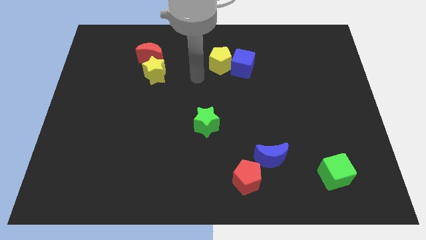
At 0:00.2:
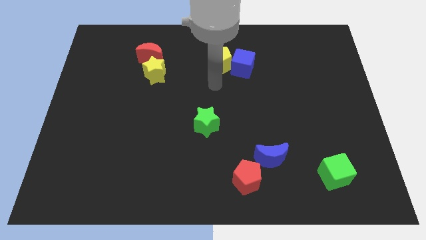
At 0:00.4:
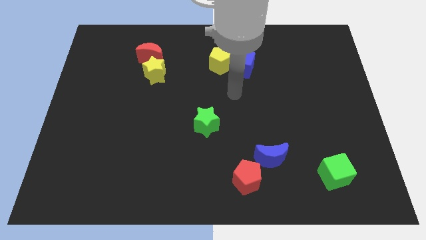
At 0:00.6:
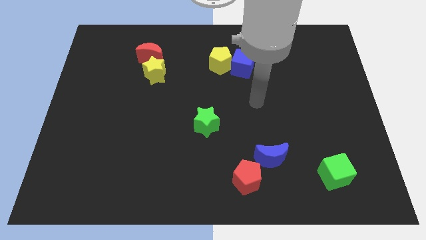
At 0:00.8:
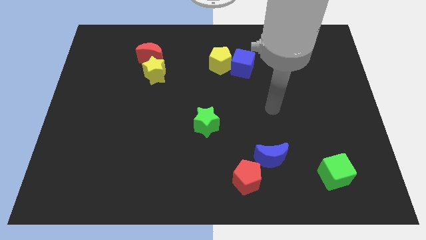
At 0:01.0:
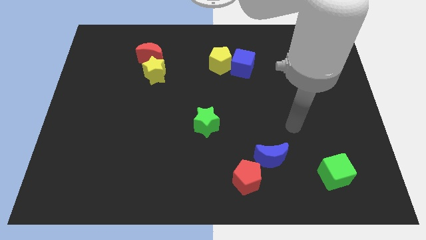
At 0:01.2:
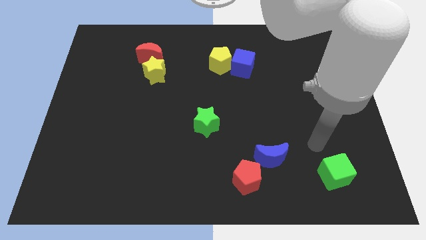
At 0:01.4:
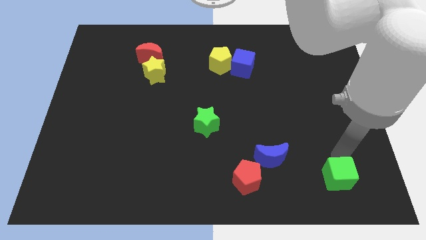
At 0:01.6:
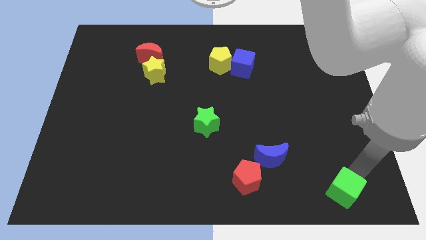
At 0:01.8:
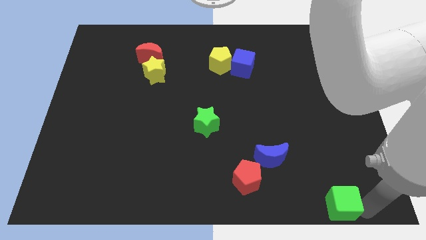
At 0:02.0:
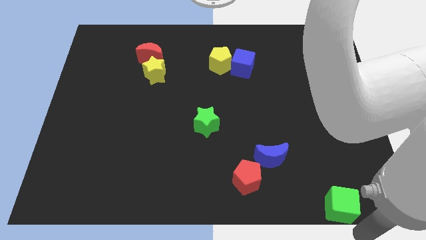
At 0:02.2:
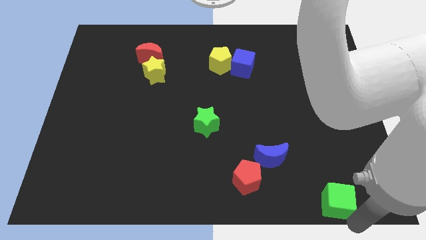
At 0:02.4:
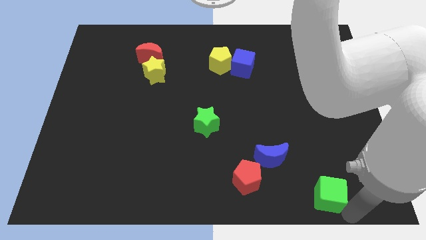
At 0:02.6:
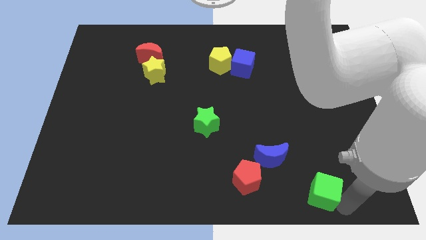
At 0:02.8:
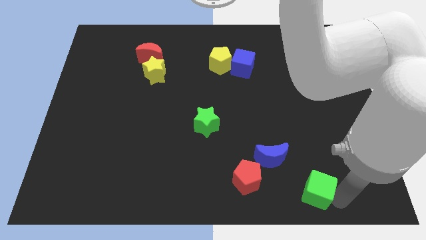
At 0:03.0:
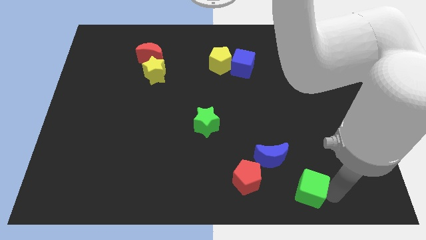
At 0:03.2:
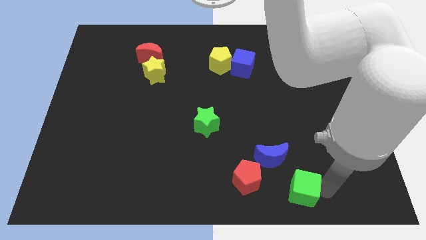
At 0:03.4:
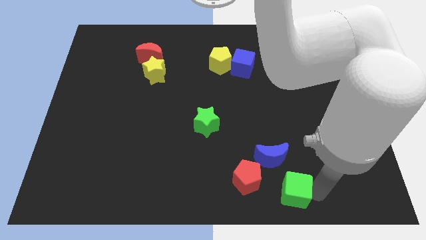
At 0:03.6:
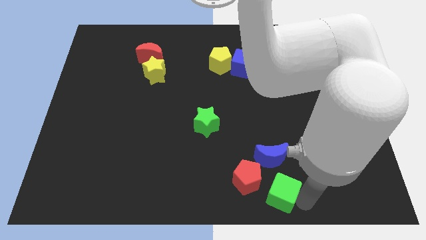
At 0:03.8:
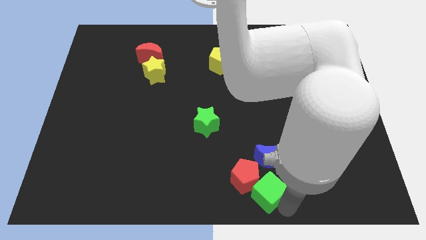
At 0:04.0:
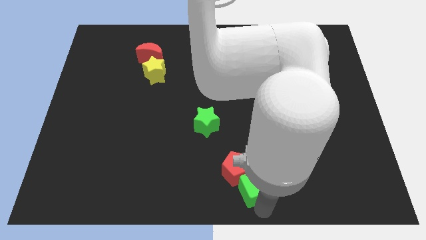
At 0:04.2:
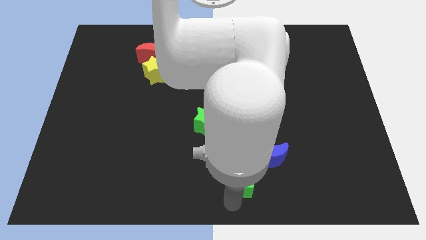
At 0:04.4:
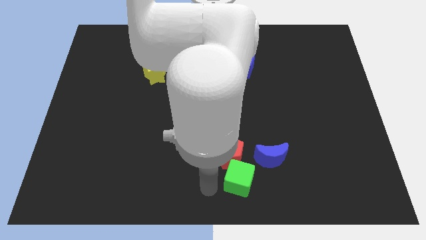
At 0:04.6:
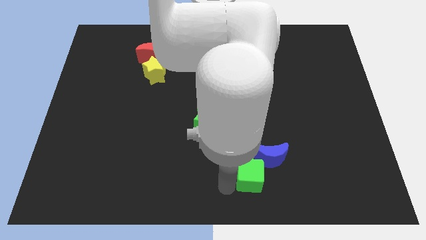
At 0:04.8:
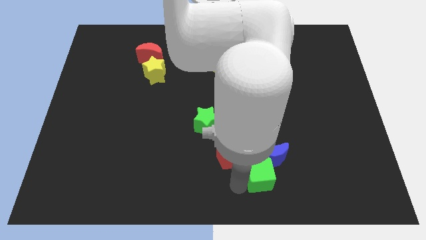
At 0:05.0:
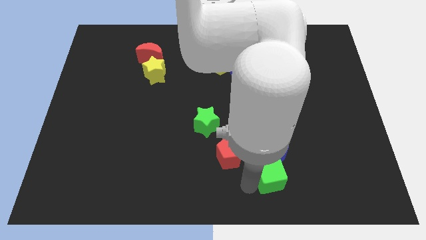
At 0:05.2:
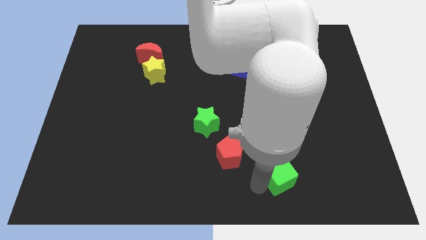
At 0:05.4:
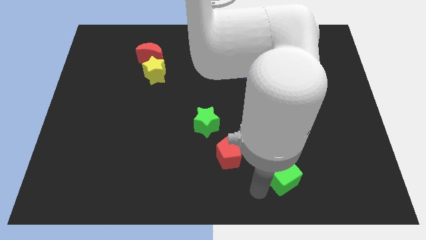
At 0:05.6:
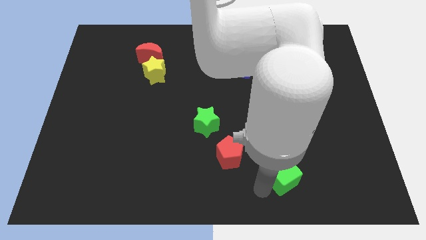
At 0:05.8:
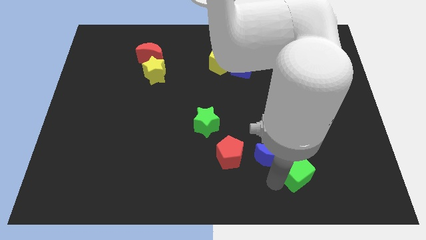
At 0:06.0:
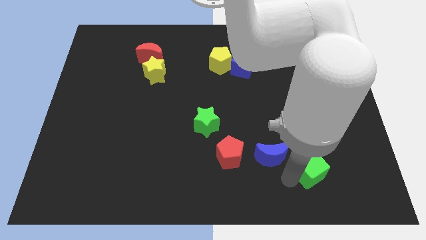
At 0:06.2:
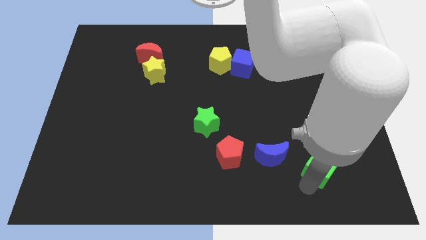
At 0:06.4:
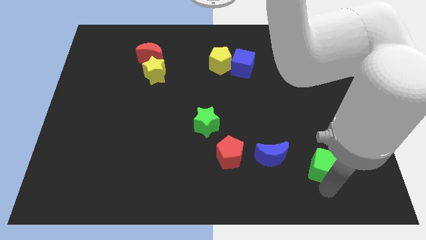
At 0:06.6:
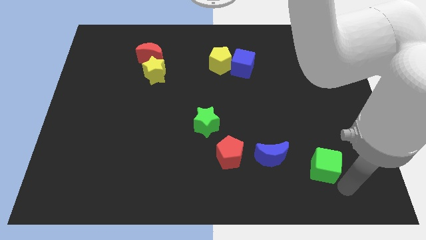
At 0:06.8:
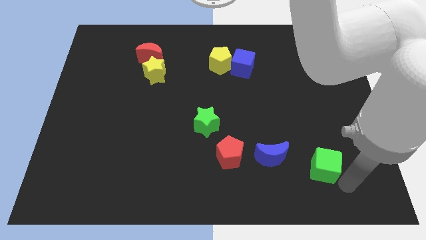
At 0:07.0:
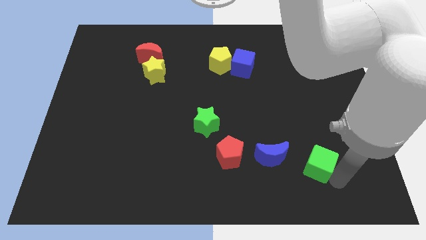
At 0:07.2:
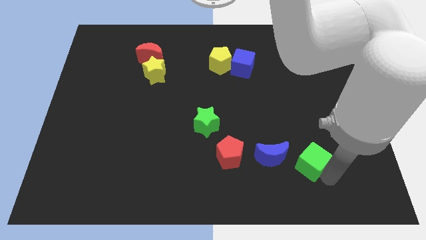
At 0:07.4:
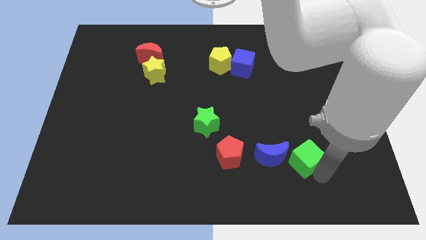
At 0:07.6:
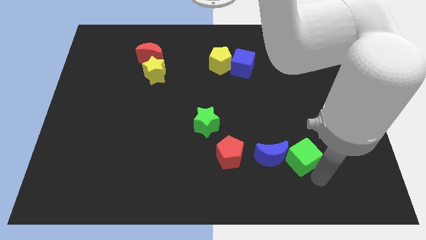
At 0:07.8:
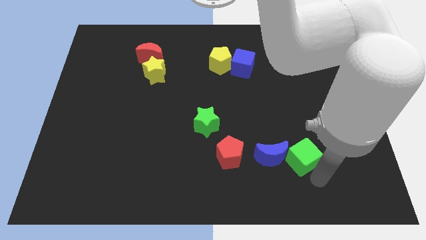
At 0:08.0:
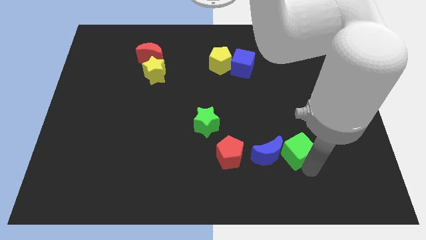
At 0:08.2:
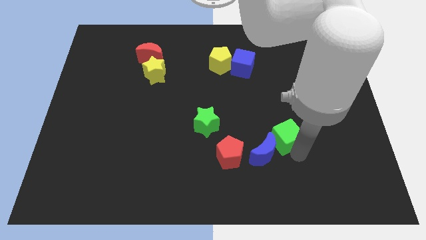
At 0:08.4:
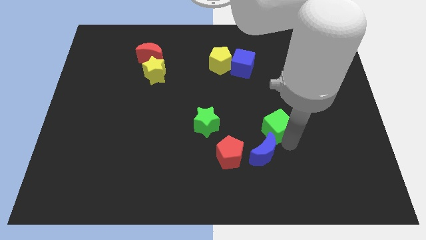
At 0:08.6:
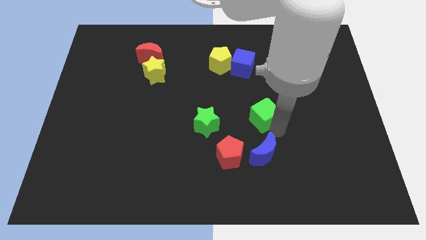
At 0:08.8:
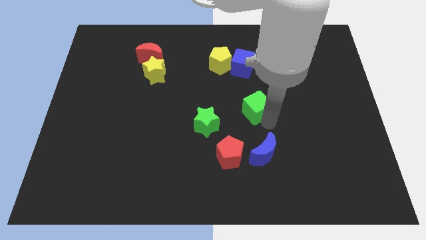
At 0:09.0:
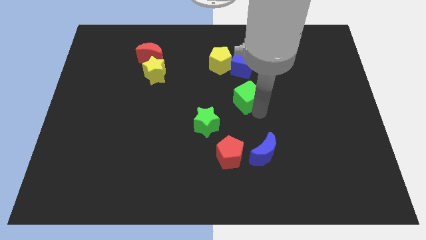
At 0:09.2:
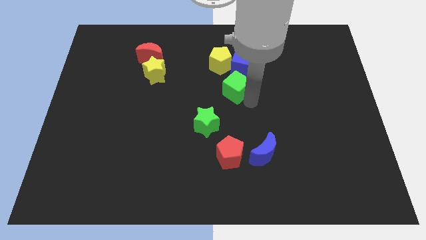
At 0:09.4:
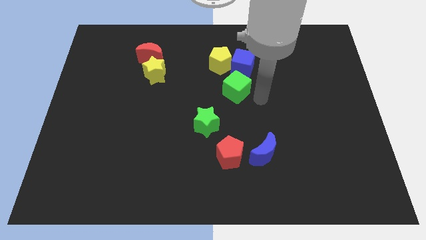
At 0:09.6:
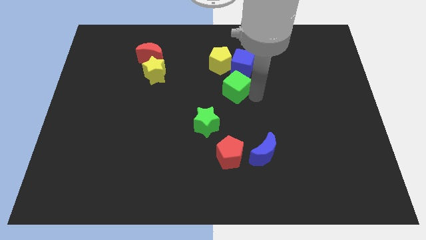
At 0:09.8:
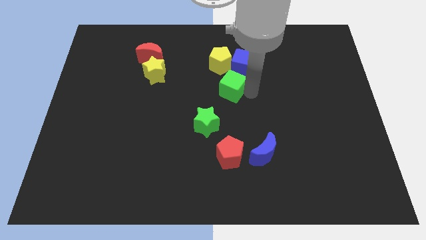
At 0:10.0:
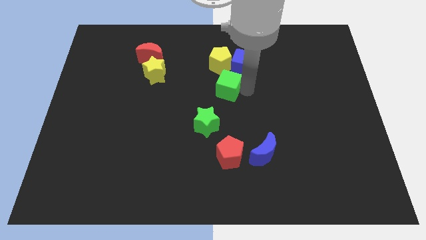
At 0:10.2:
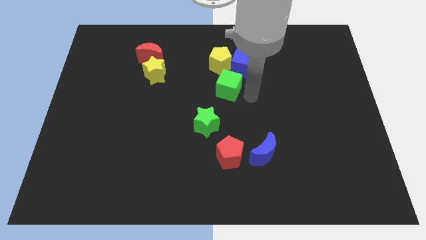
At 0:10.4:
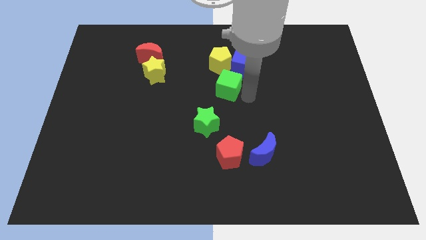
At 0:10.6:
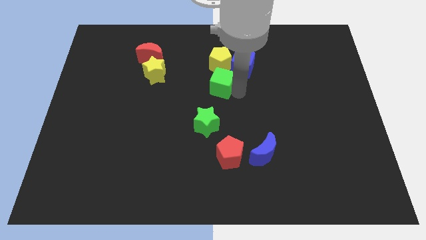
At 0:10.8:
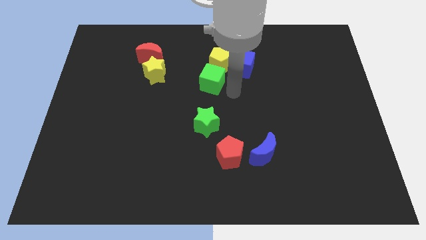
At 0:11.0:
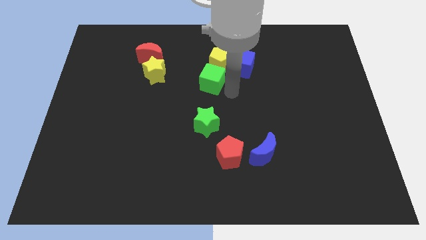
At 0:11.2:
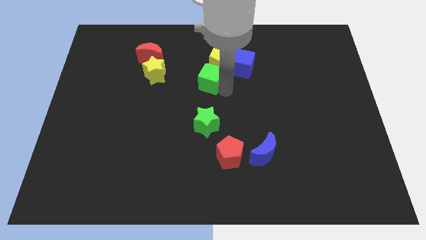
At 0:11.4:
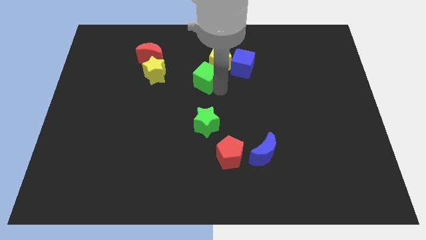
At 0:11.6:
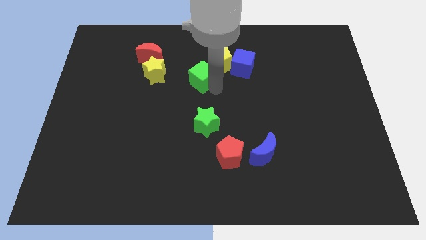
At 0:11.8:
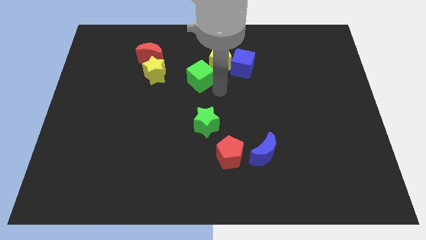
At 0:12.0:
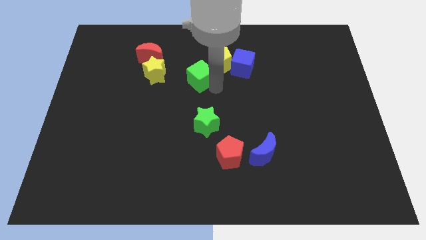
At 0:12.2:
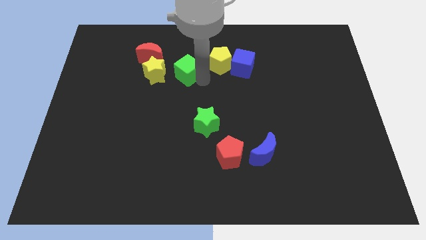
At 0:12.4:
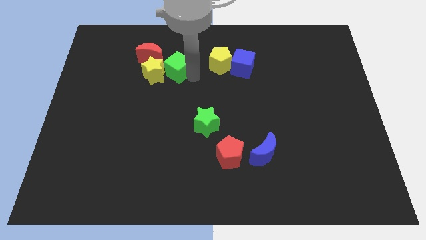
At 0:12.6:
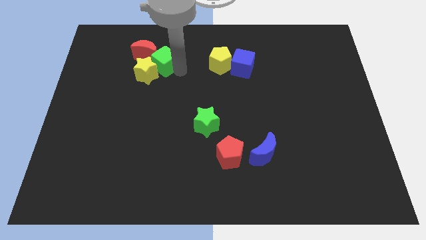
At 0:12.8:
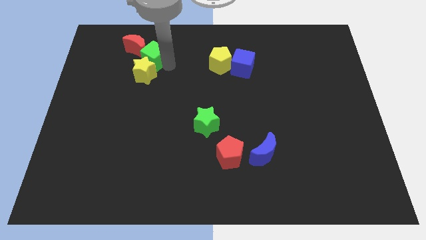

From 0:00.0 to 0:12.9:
move the green cube close to the red moon

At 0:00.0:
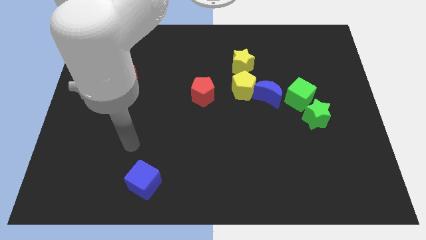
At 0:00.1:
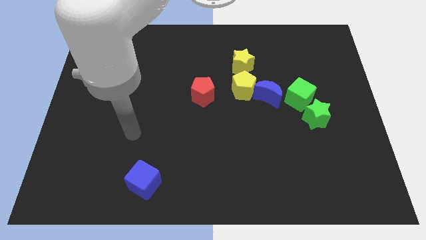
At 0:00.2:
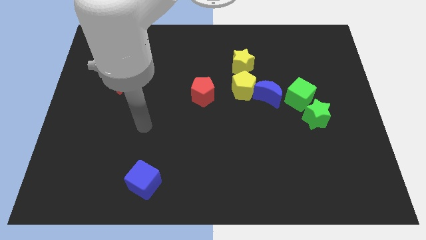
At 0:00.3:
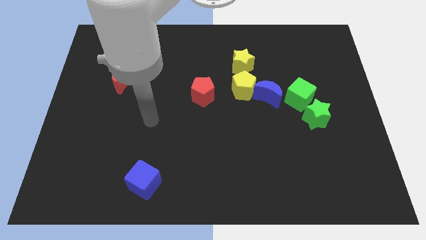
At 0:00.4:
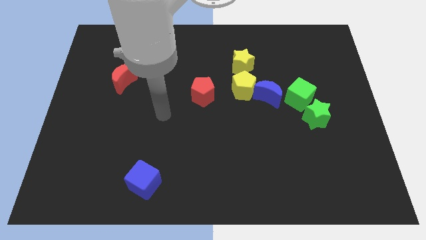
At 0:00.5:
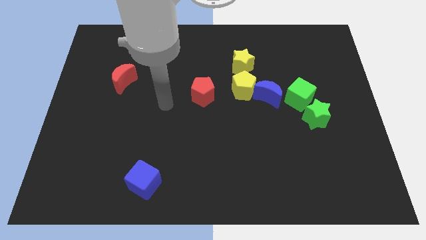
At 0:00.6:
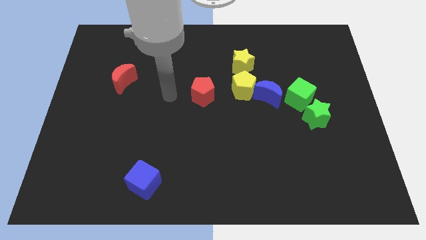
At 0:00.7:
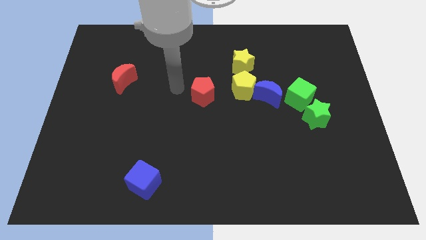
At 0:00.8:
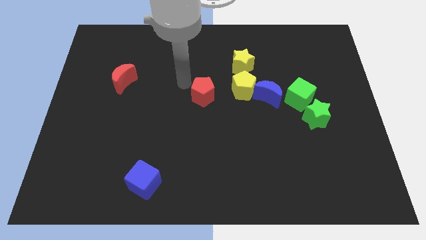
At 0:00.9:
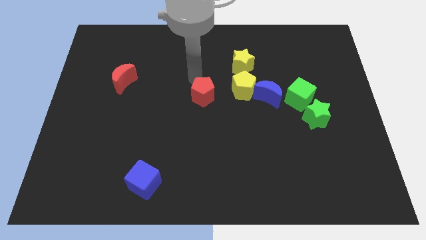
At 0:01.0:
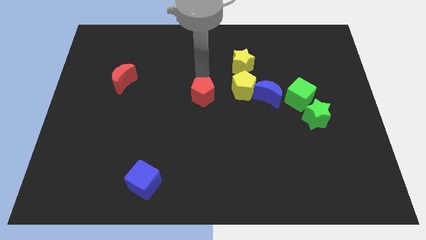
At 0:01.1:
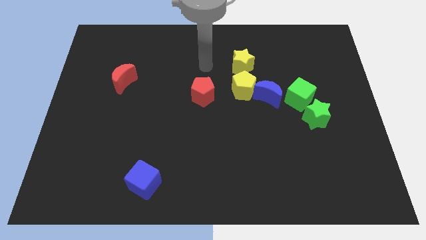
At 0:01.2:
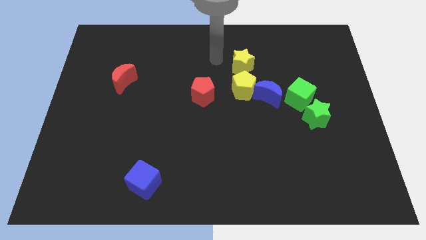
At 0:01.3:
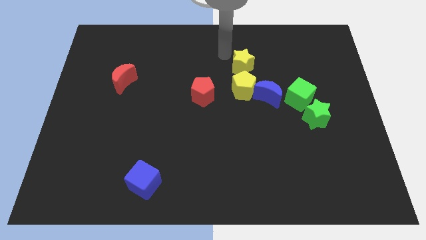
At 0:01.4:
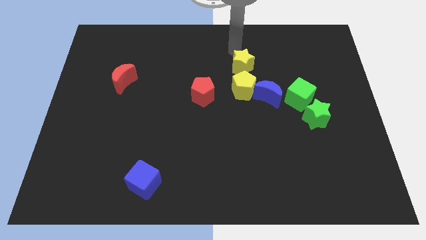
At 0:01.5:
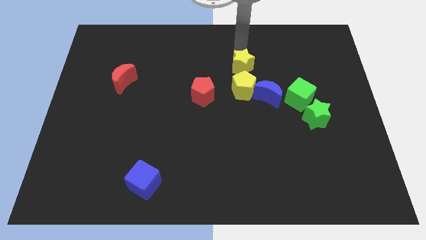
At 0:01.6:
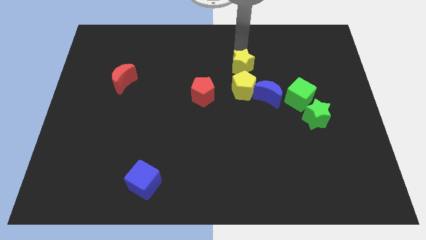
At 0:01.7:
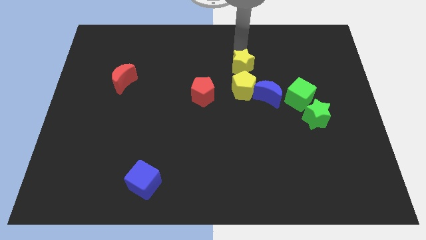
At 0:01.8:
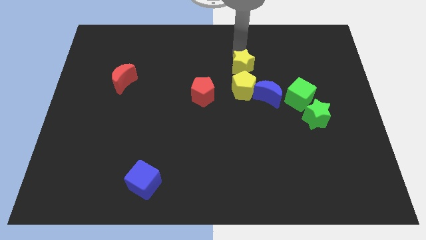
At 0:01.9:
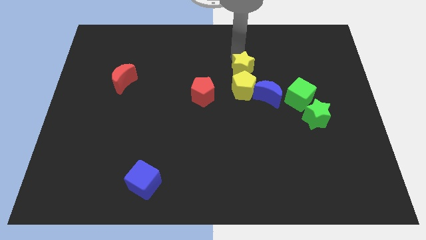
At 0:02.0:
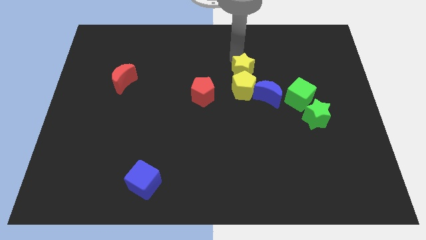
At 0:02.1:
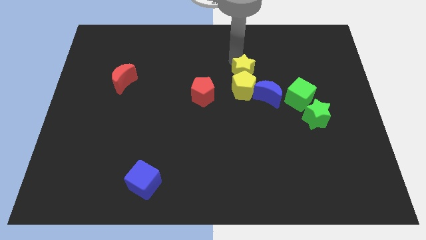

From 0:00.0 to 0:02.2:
move the yellow star close to the yellow pentagon

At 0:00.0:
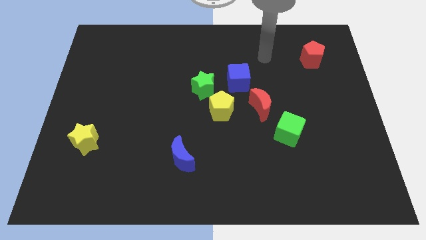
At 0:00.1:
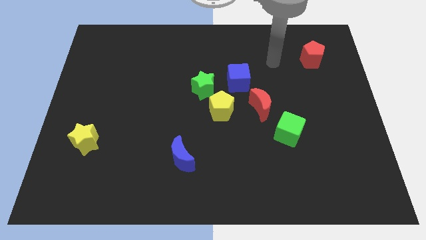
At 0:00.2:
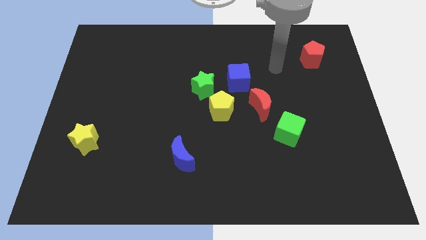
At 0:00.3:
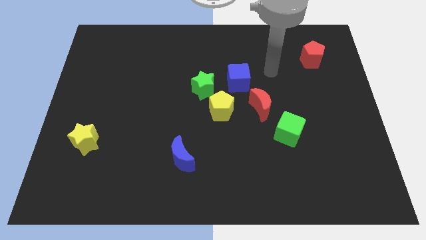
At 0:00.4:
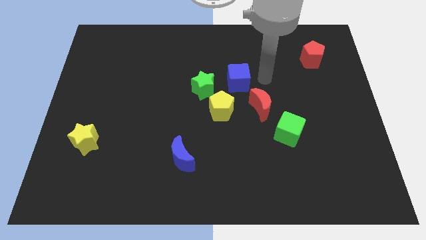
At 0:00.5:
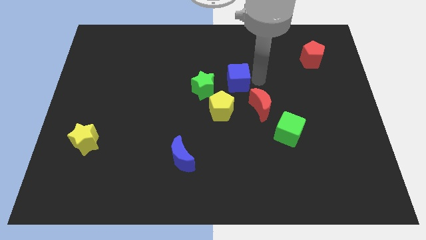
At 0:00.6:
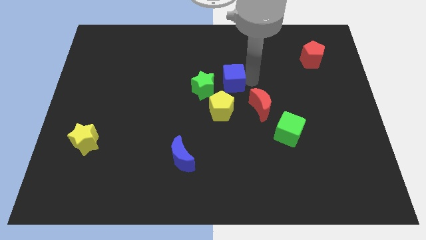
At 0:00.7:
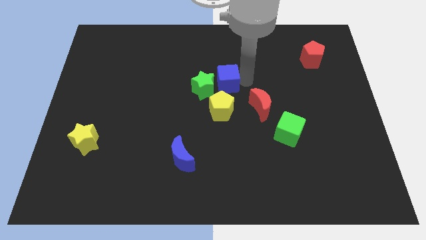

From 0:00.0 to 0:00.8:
move the blue cube towards the green star
